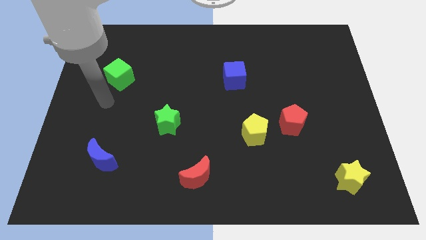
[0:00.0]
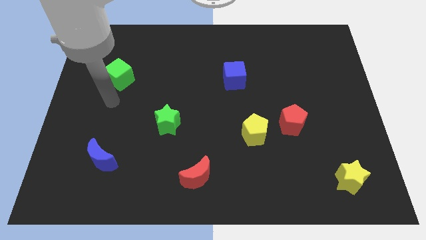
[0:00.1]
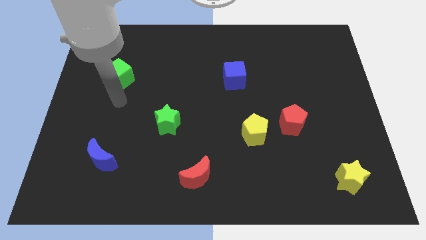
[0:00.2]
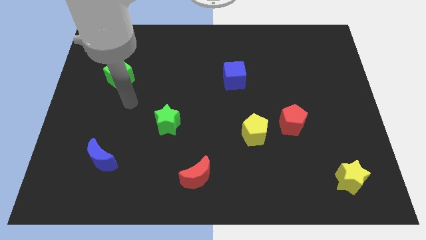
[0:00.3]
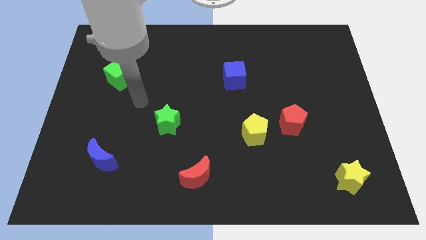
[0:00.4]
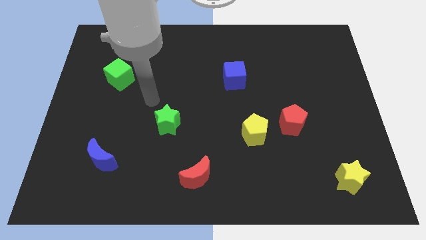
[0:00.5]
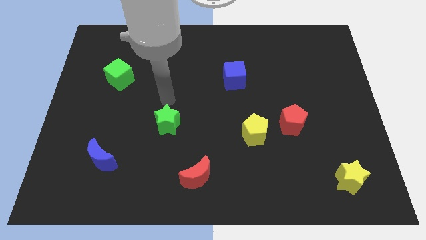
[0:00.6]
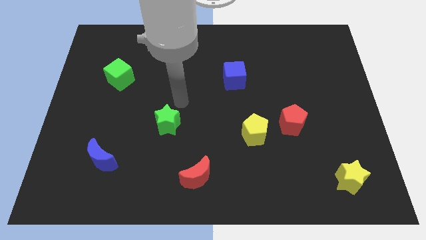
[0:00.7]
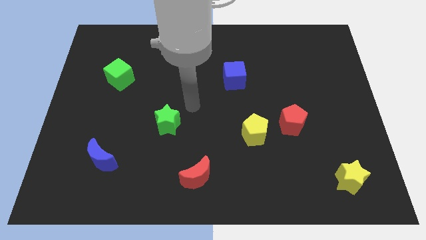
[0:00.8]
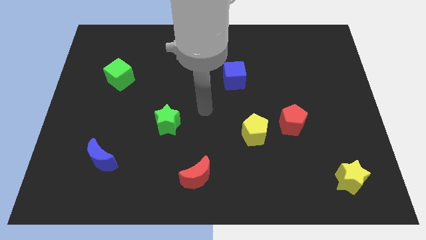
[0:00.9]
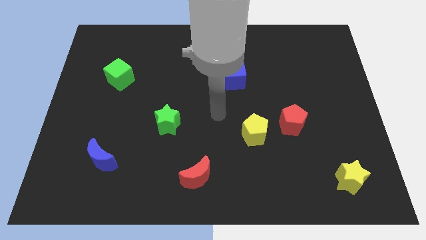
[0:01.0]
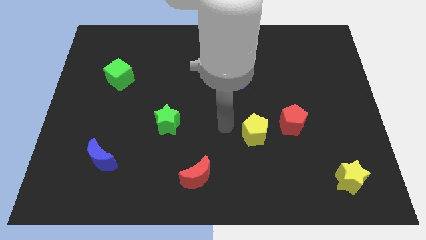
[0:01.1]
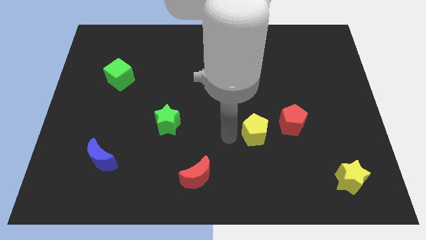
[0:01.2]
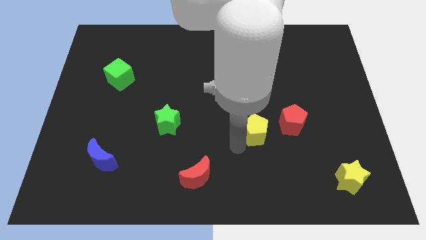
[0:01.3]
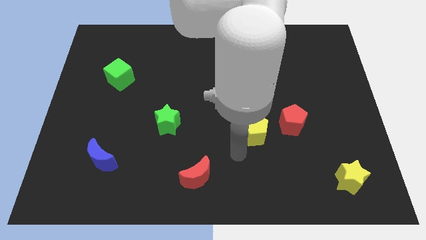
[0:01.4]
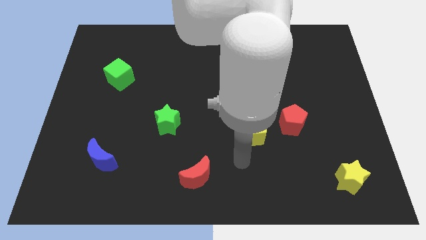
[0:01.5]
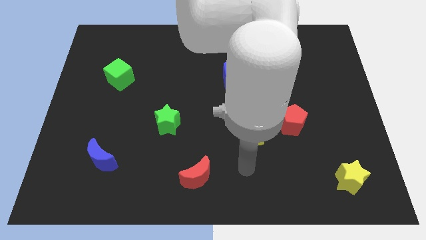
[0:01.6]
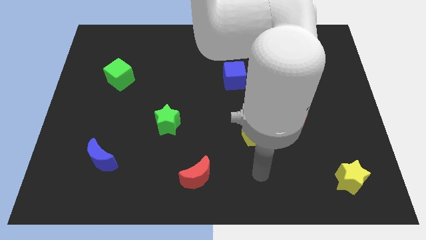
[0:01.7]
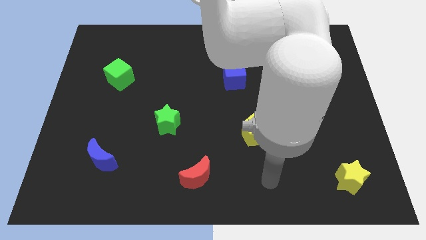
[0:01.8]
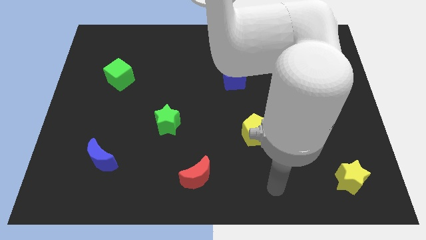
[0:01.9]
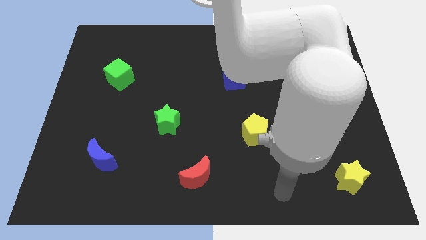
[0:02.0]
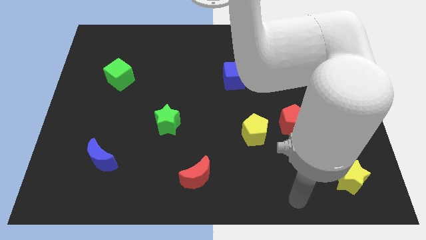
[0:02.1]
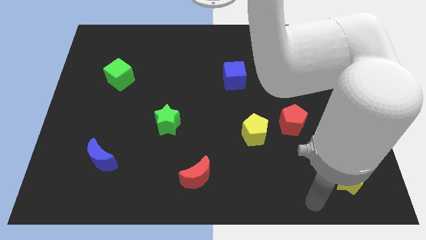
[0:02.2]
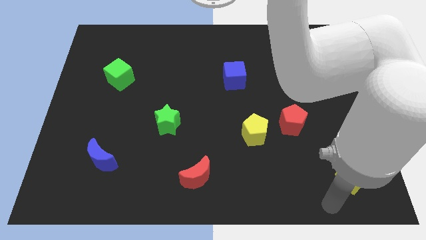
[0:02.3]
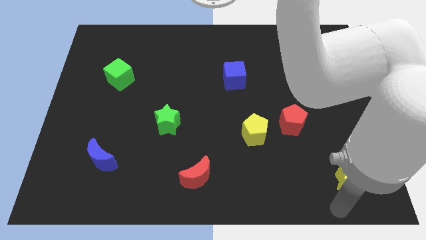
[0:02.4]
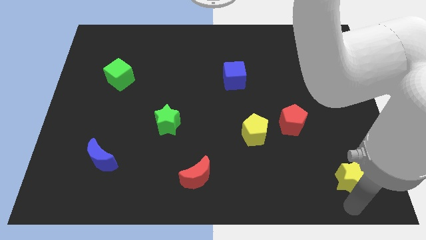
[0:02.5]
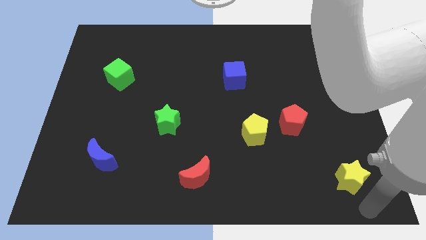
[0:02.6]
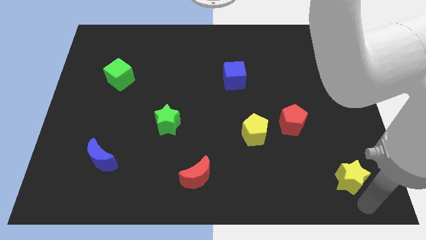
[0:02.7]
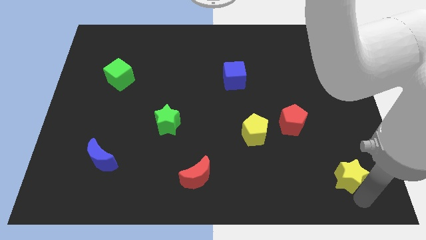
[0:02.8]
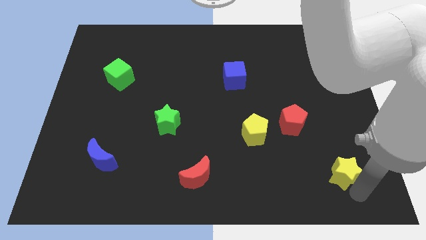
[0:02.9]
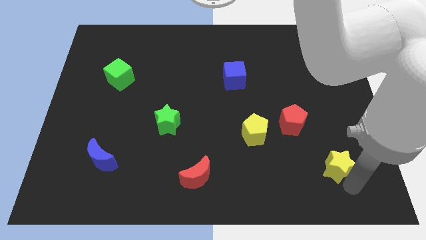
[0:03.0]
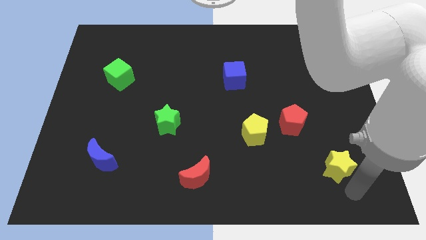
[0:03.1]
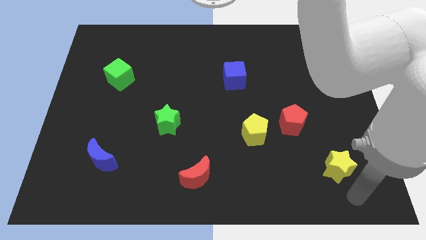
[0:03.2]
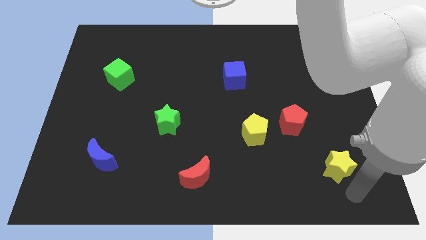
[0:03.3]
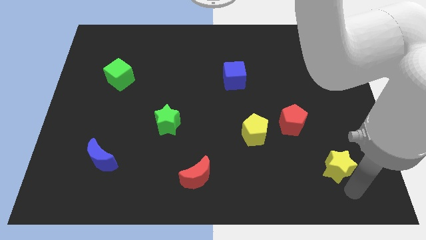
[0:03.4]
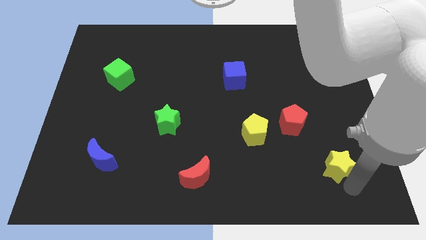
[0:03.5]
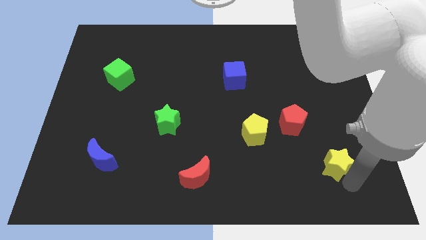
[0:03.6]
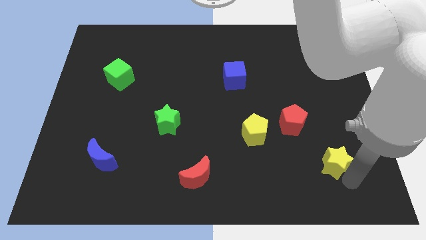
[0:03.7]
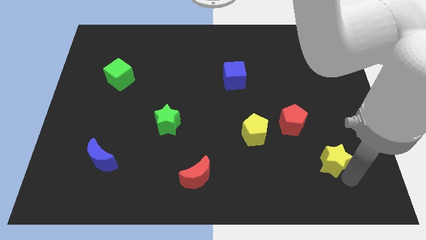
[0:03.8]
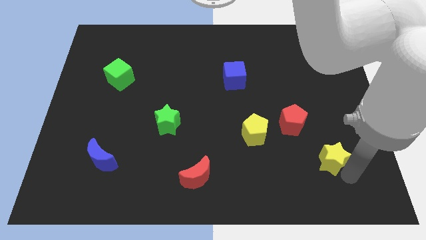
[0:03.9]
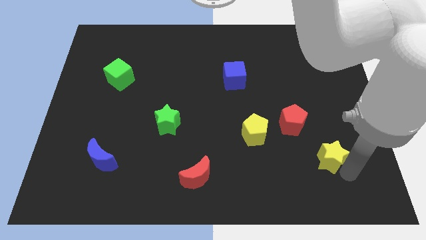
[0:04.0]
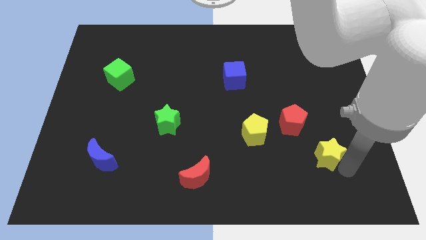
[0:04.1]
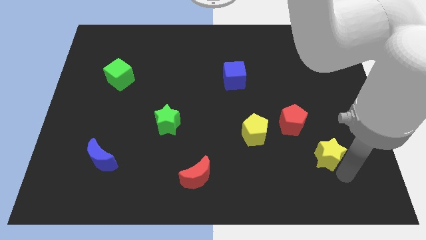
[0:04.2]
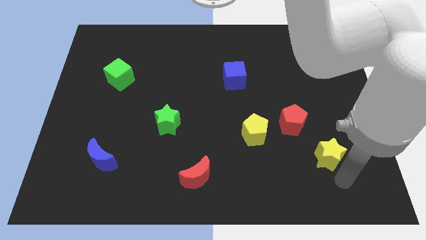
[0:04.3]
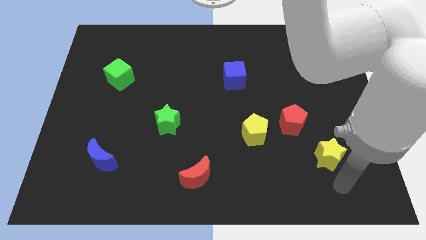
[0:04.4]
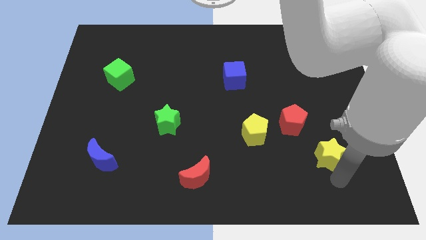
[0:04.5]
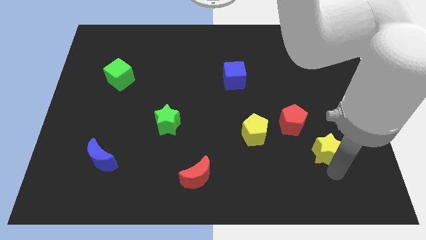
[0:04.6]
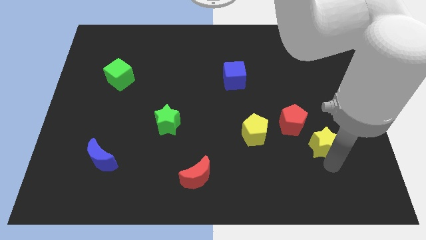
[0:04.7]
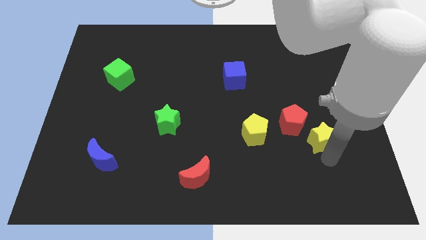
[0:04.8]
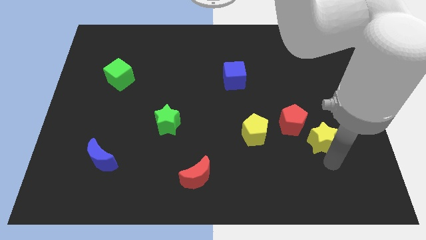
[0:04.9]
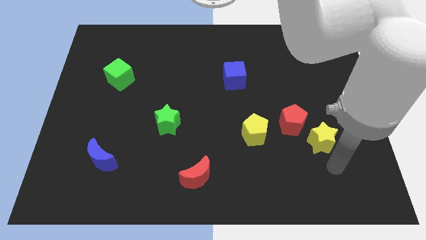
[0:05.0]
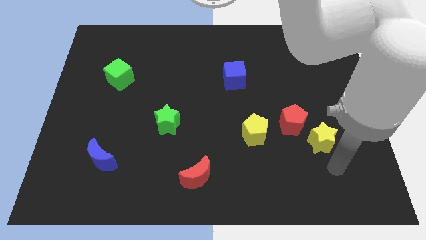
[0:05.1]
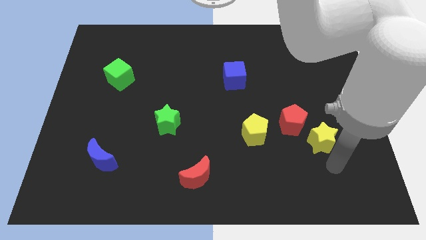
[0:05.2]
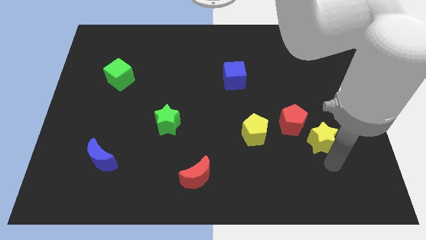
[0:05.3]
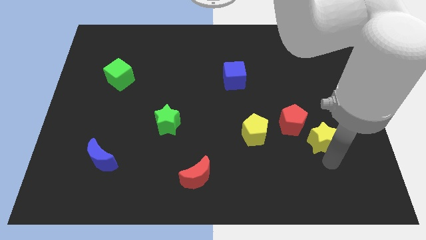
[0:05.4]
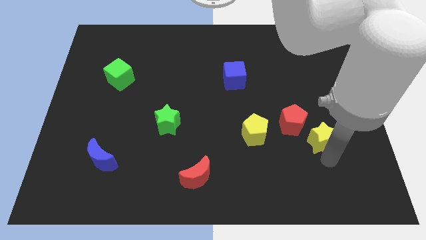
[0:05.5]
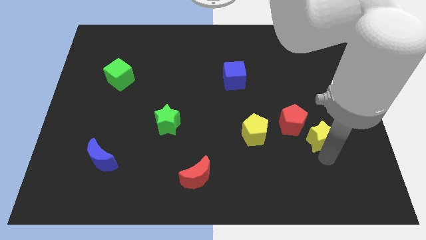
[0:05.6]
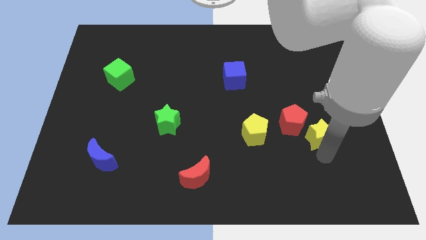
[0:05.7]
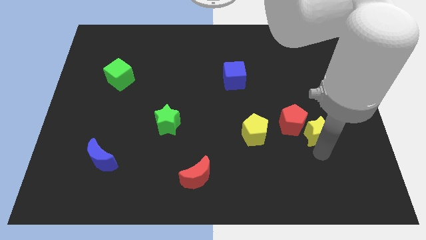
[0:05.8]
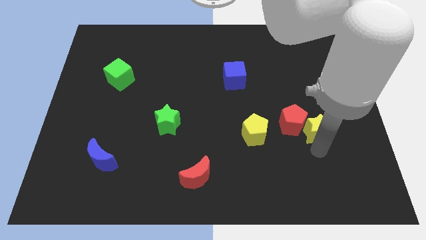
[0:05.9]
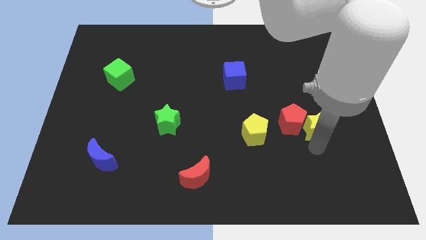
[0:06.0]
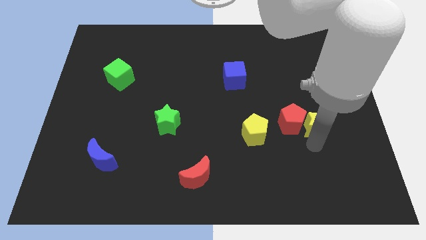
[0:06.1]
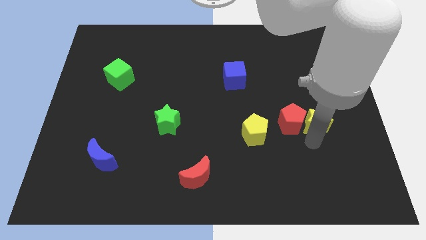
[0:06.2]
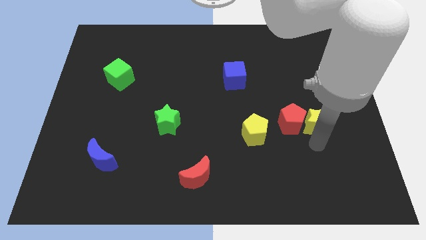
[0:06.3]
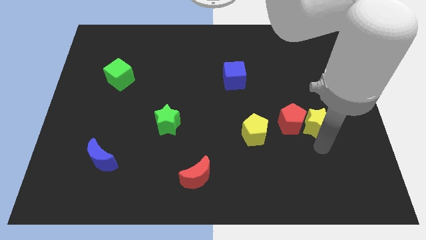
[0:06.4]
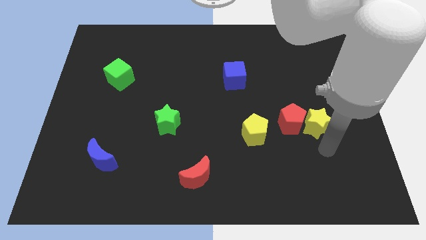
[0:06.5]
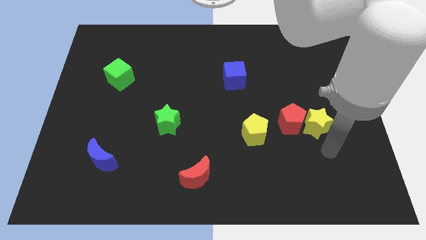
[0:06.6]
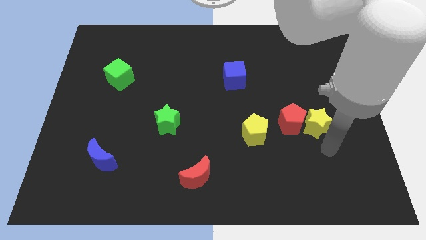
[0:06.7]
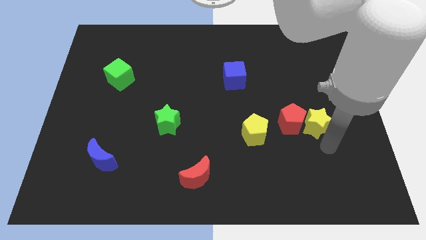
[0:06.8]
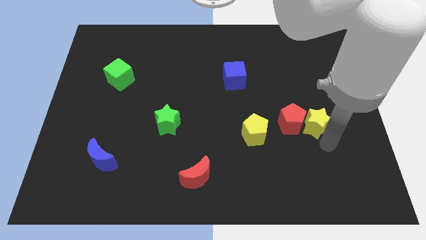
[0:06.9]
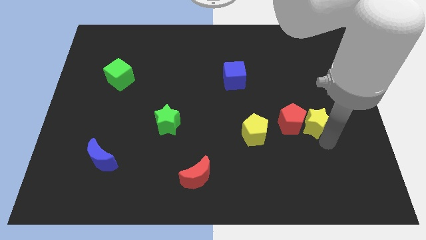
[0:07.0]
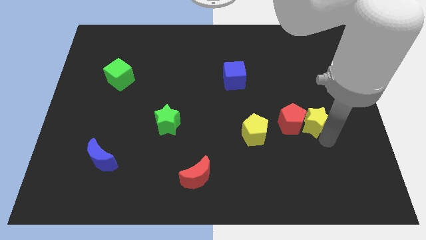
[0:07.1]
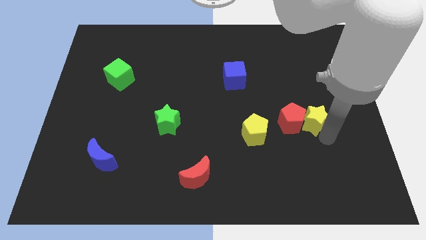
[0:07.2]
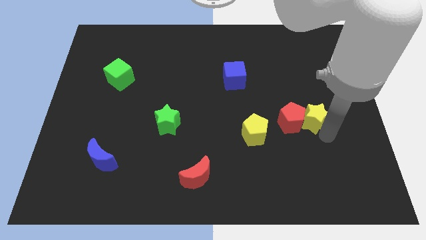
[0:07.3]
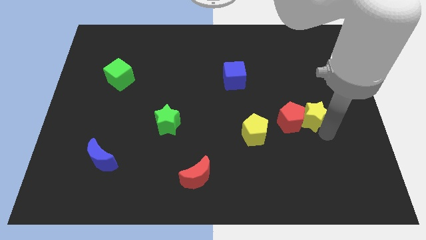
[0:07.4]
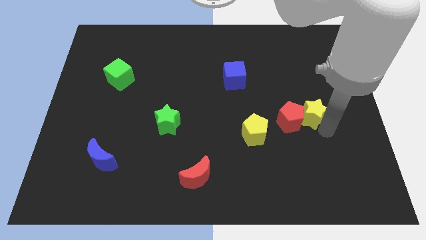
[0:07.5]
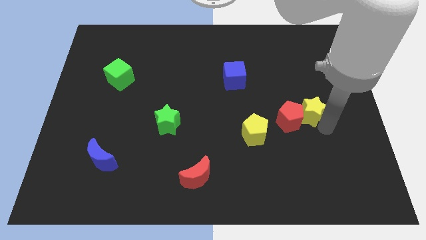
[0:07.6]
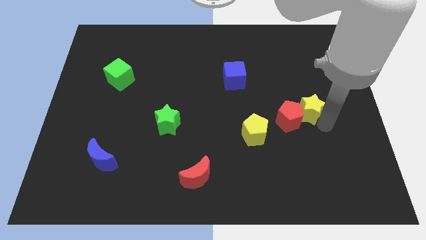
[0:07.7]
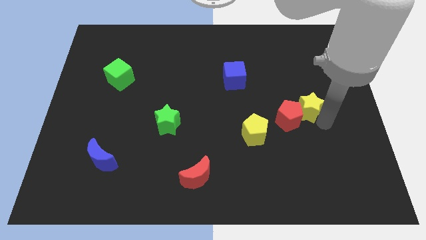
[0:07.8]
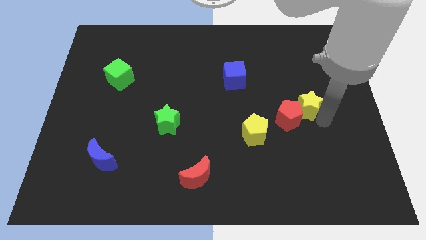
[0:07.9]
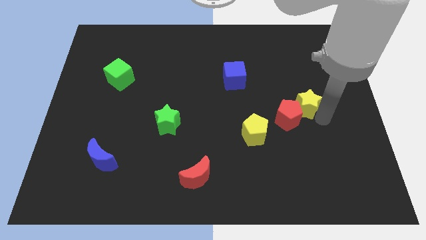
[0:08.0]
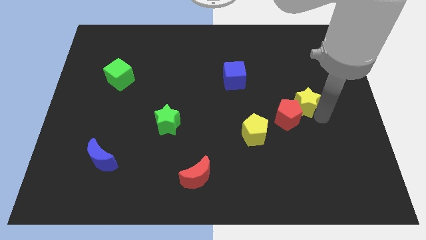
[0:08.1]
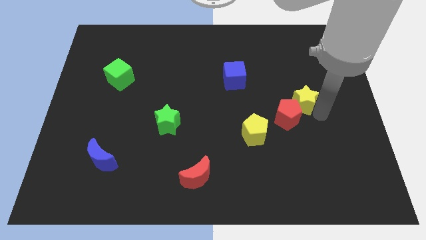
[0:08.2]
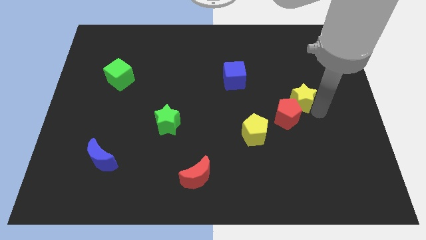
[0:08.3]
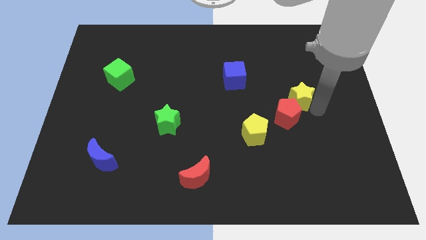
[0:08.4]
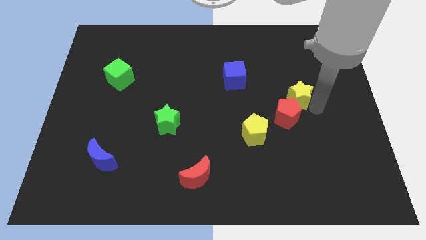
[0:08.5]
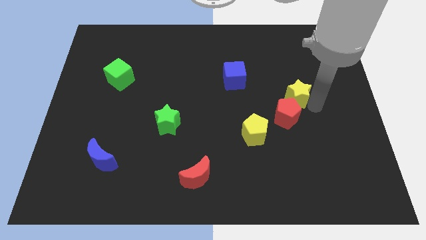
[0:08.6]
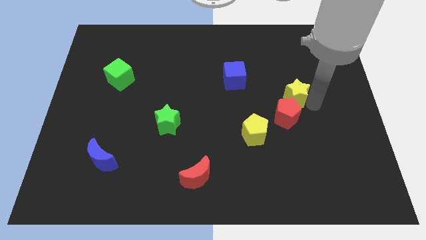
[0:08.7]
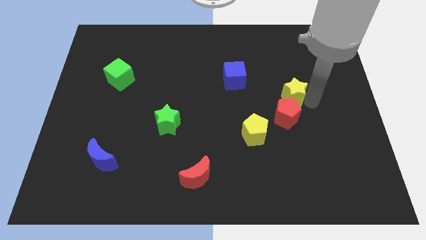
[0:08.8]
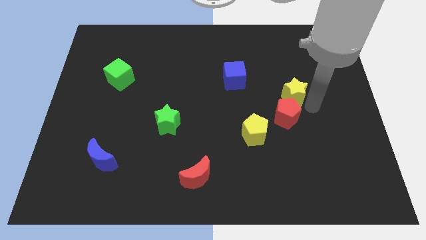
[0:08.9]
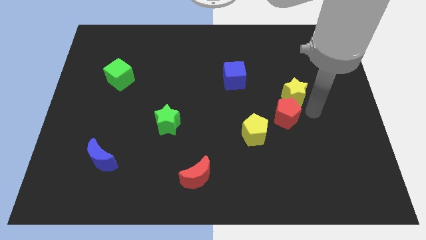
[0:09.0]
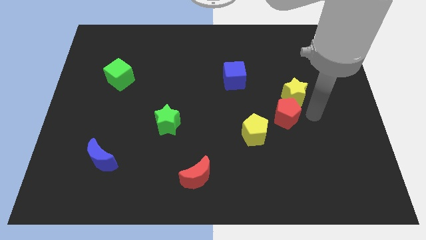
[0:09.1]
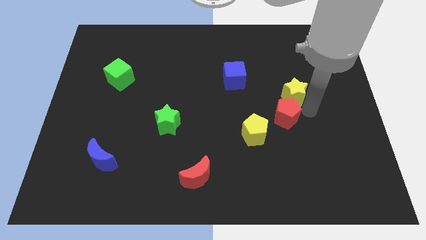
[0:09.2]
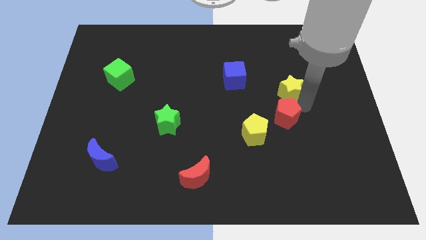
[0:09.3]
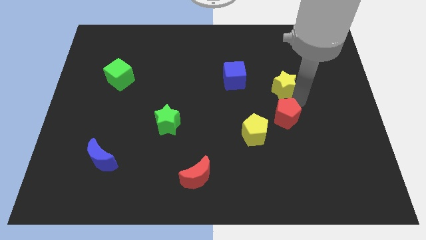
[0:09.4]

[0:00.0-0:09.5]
push the yellow star just right of the blue cube
